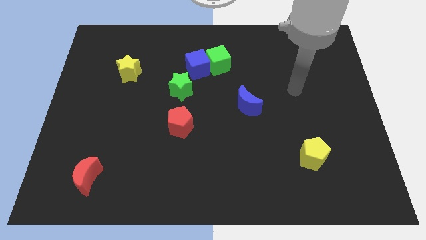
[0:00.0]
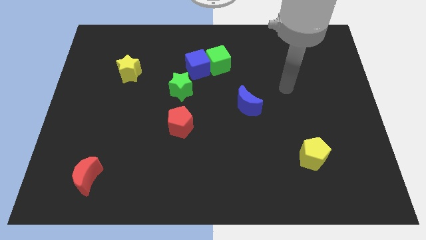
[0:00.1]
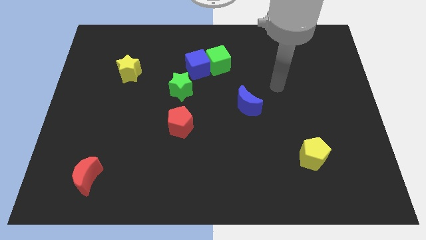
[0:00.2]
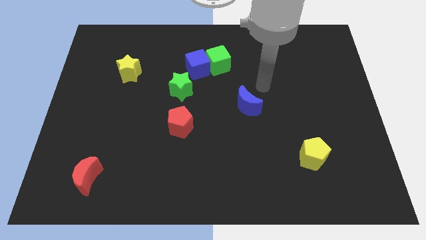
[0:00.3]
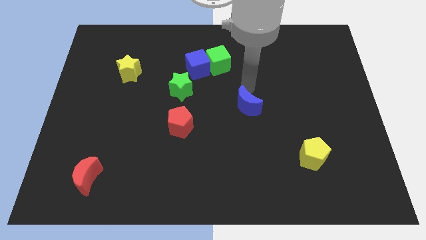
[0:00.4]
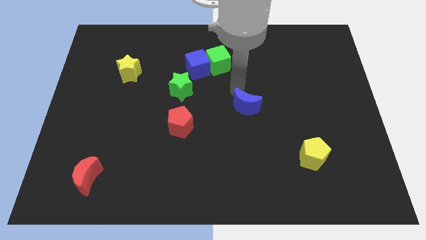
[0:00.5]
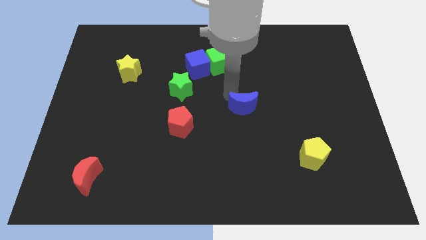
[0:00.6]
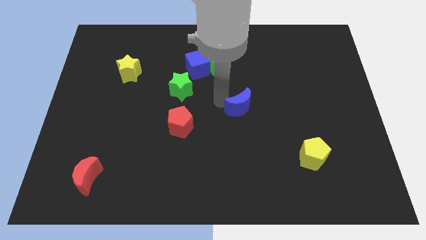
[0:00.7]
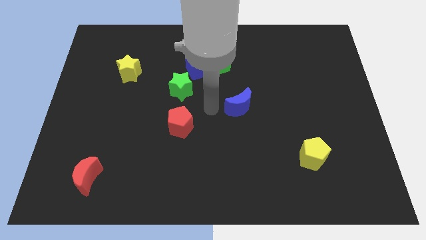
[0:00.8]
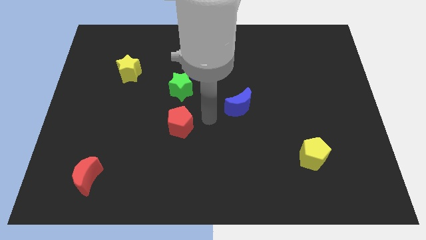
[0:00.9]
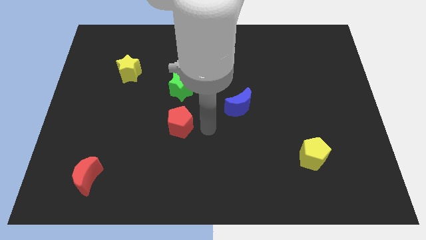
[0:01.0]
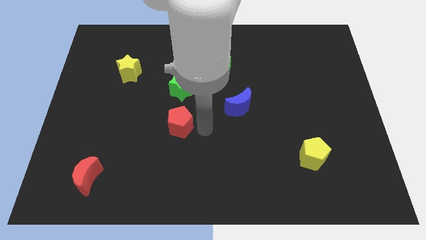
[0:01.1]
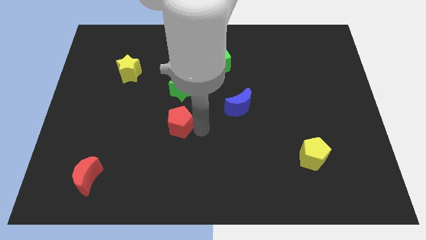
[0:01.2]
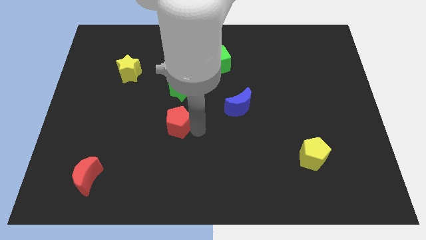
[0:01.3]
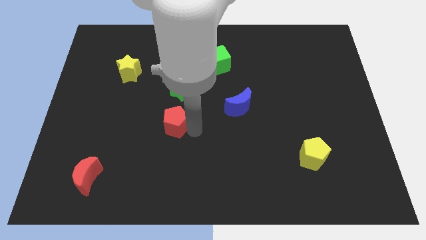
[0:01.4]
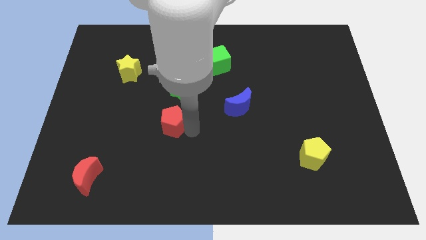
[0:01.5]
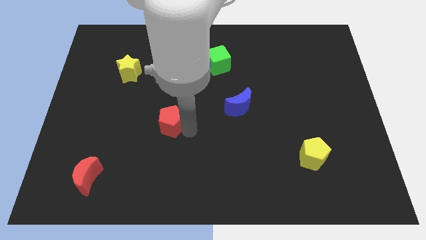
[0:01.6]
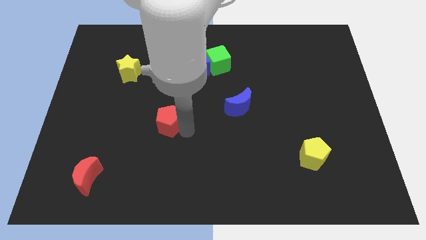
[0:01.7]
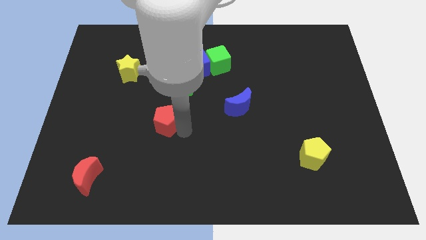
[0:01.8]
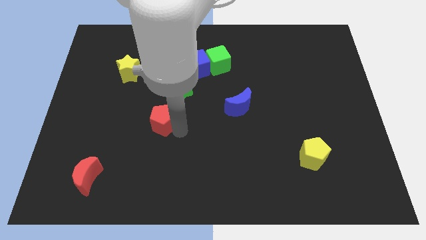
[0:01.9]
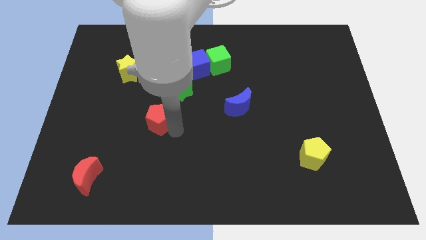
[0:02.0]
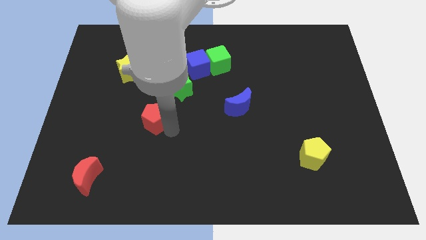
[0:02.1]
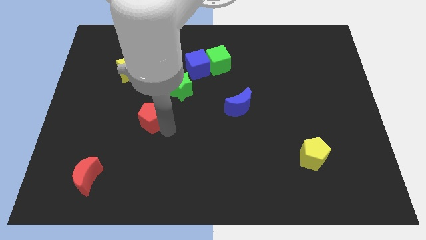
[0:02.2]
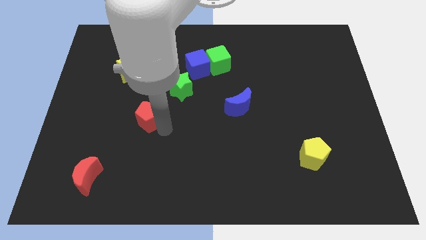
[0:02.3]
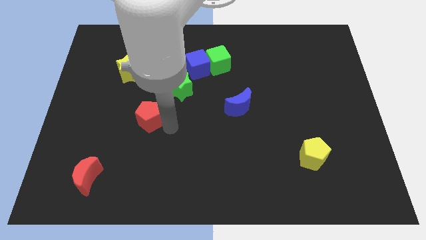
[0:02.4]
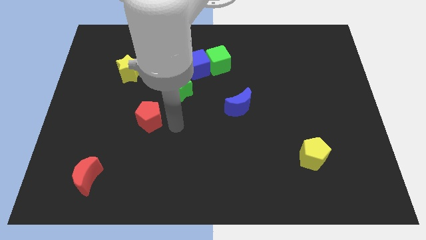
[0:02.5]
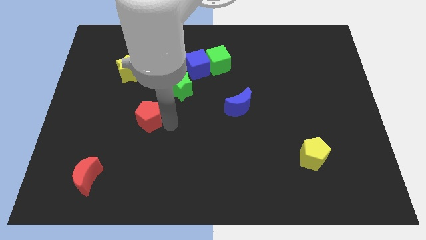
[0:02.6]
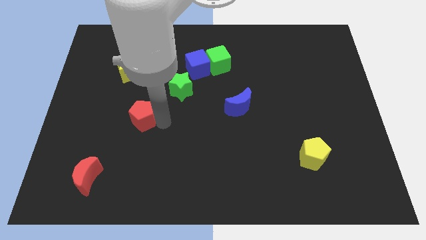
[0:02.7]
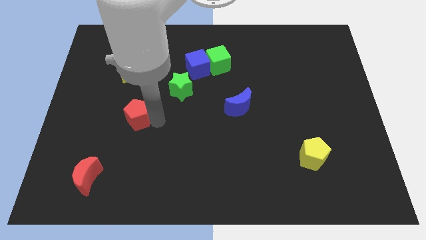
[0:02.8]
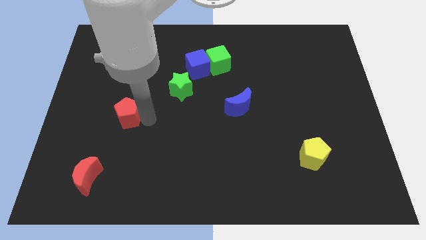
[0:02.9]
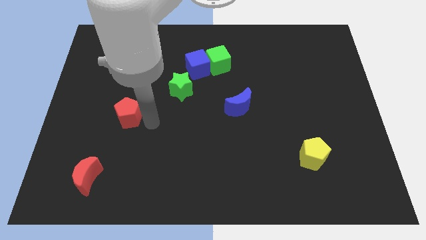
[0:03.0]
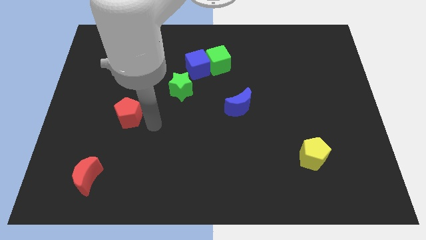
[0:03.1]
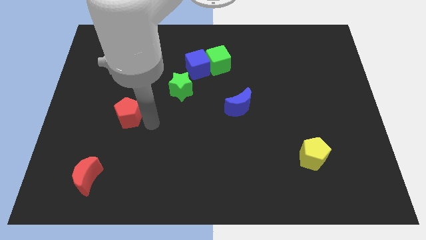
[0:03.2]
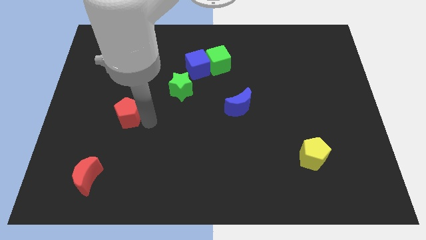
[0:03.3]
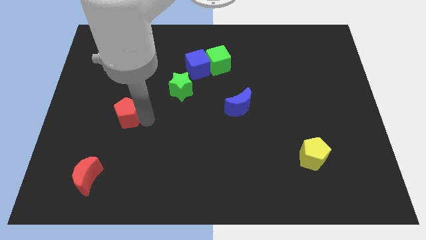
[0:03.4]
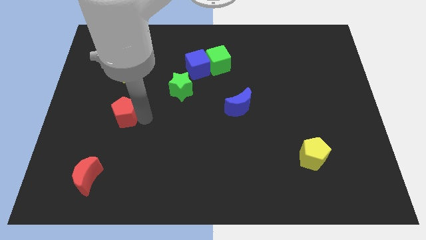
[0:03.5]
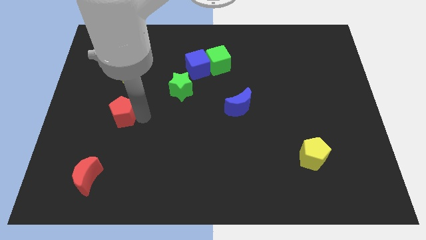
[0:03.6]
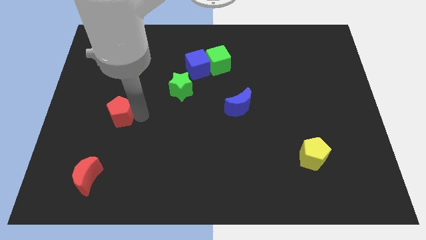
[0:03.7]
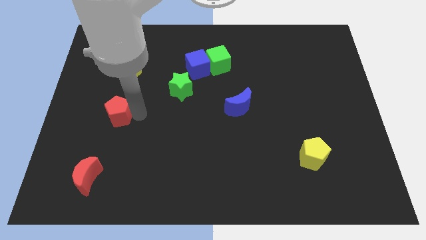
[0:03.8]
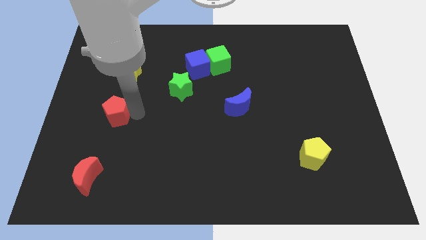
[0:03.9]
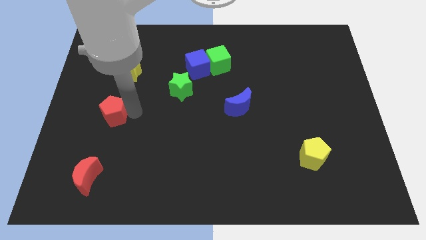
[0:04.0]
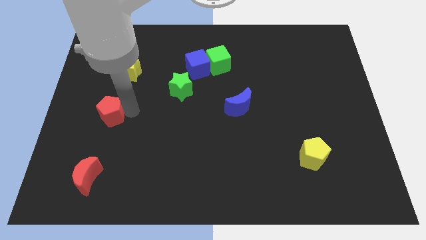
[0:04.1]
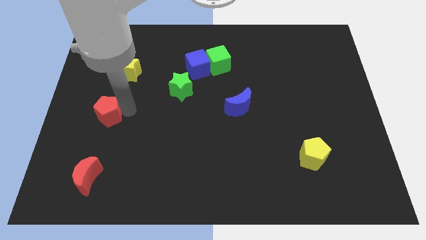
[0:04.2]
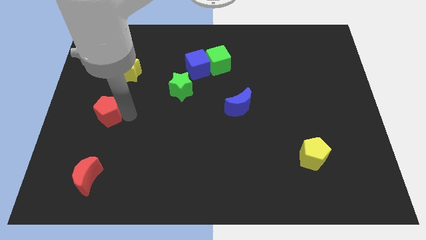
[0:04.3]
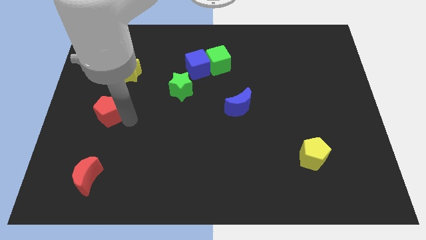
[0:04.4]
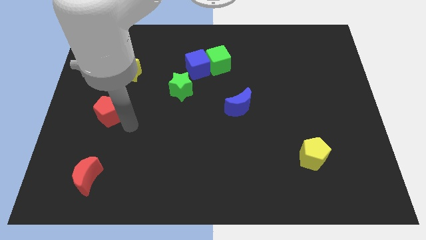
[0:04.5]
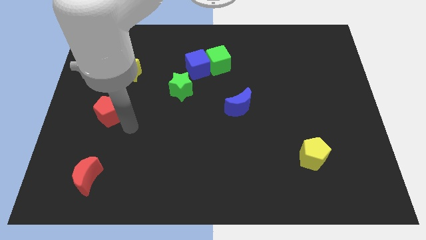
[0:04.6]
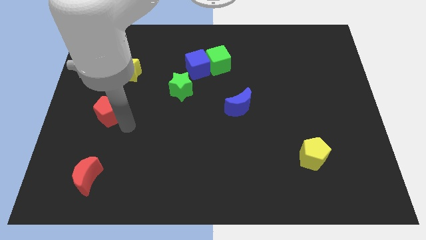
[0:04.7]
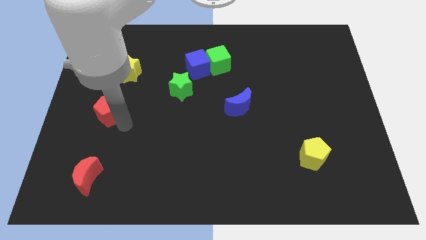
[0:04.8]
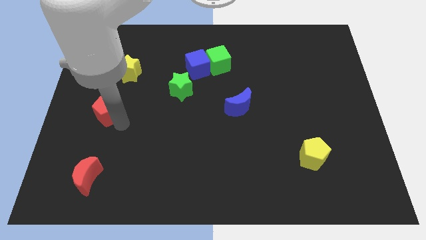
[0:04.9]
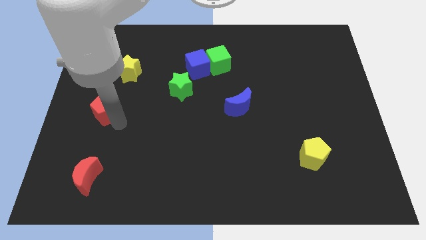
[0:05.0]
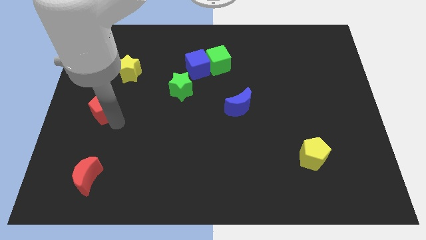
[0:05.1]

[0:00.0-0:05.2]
slide the red pentagon to the left side

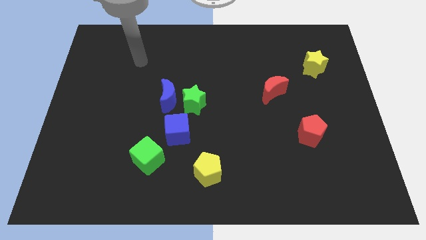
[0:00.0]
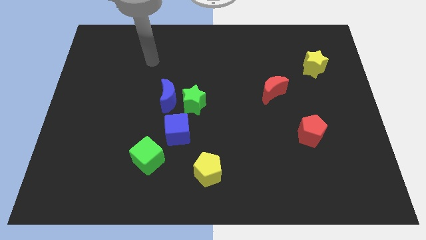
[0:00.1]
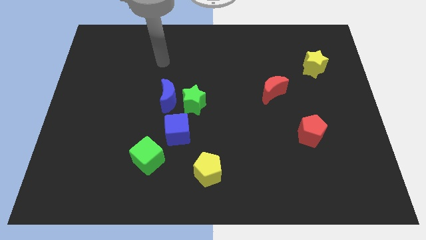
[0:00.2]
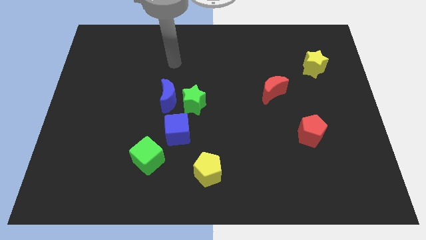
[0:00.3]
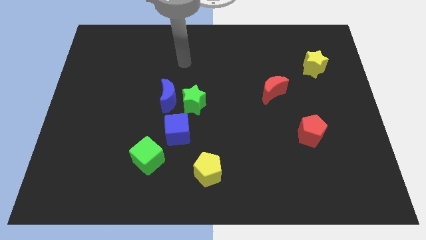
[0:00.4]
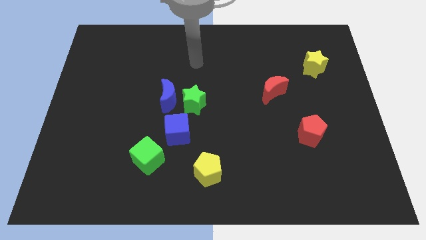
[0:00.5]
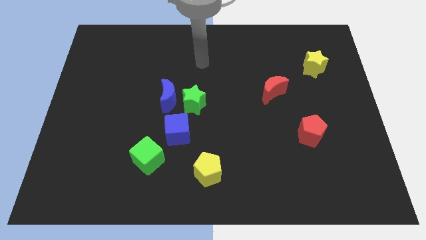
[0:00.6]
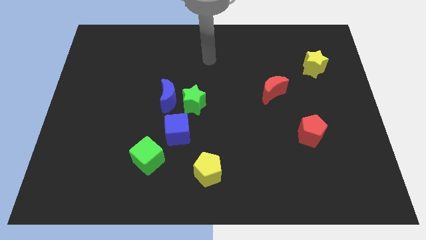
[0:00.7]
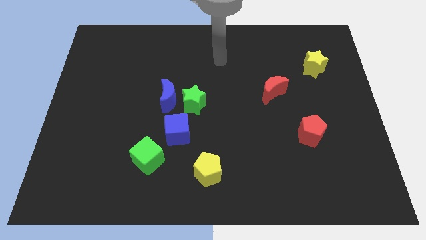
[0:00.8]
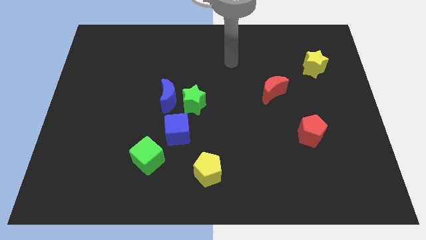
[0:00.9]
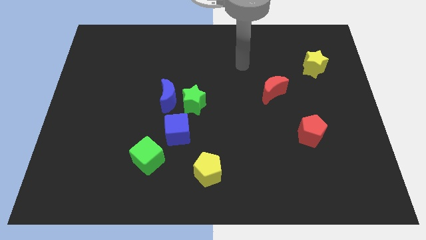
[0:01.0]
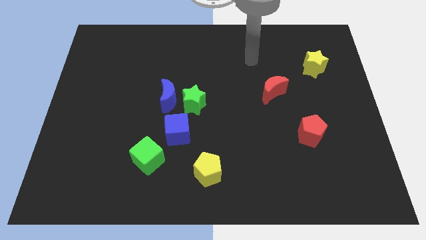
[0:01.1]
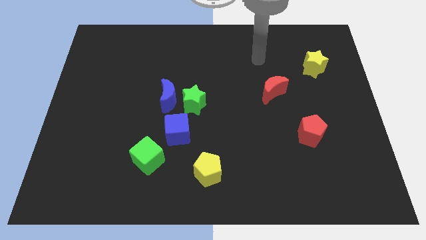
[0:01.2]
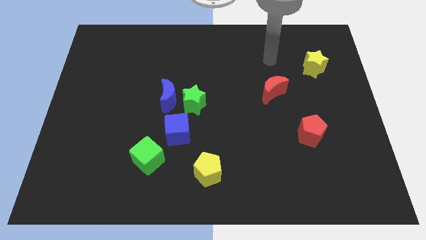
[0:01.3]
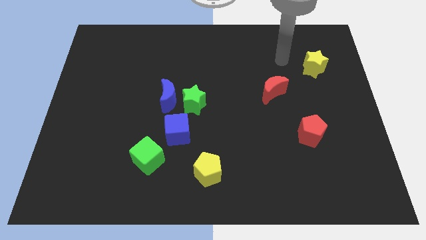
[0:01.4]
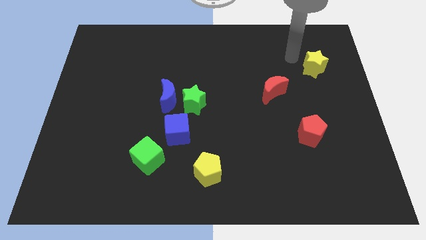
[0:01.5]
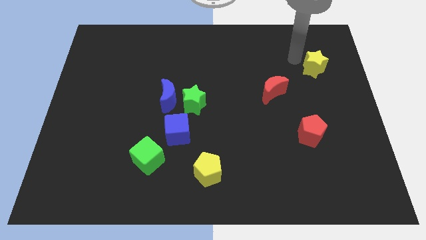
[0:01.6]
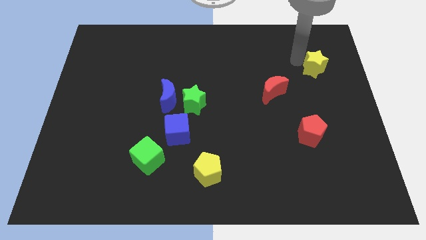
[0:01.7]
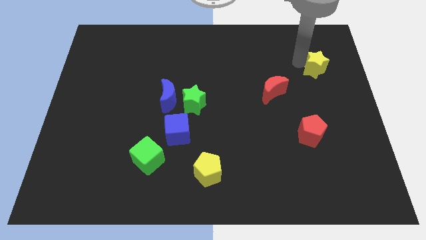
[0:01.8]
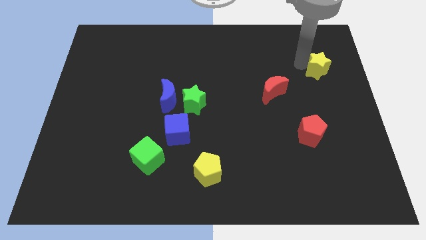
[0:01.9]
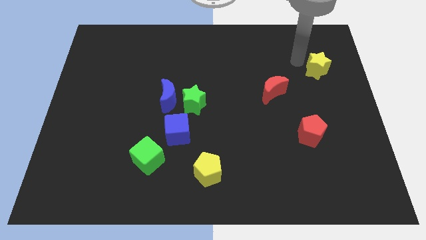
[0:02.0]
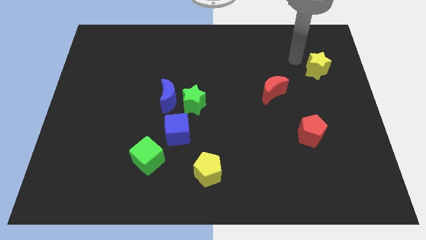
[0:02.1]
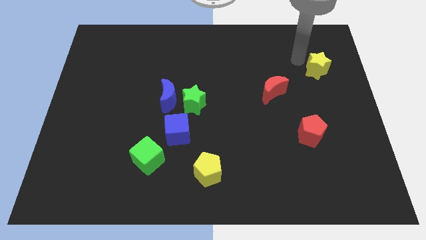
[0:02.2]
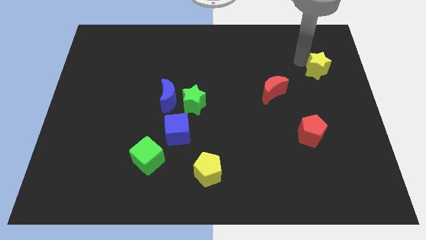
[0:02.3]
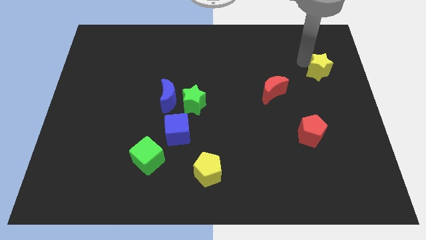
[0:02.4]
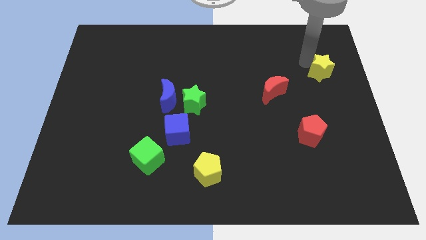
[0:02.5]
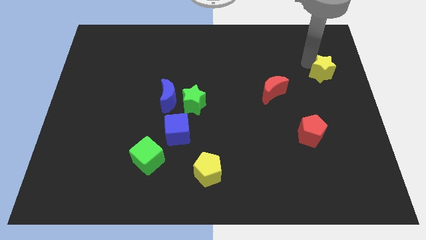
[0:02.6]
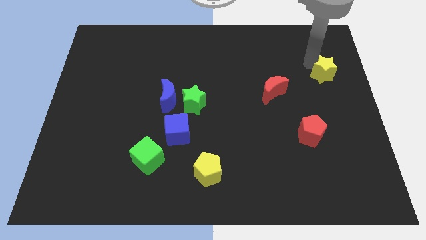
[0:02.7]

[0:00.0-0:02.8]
slide the yellow star to the center right
